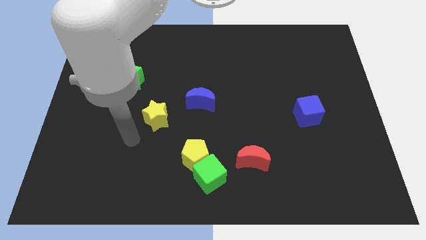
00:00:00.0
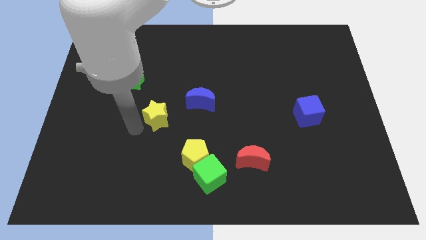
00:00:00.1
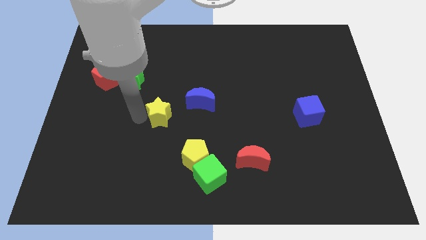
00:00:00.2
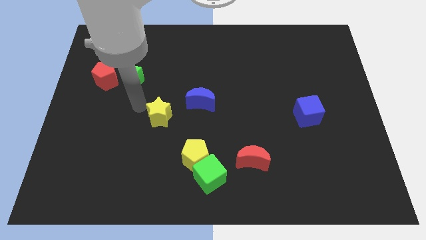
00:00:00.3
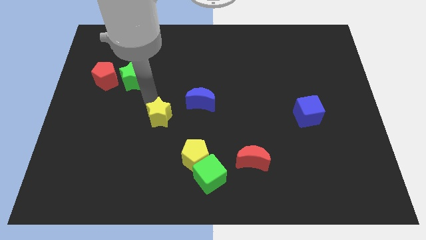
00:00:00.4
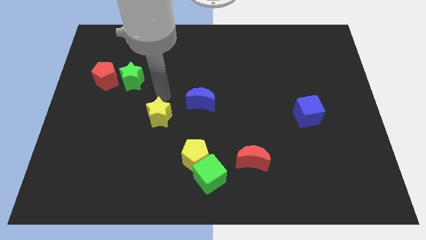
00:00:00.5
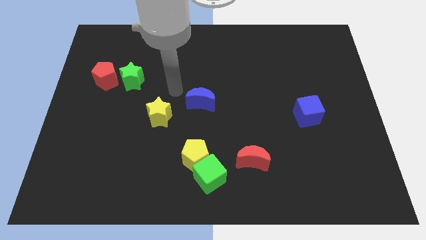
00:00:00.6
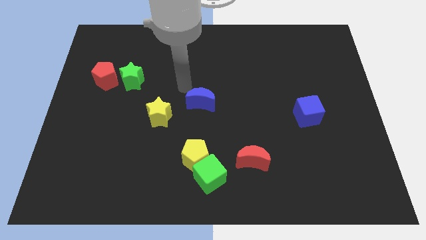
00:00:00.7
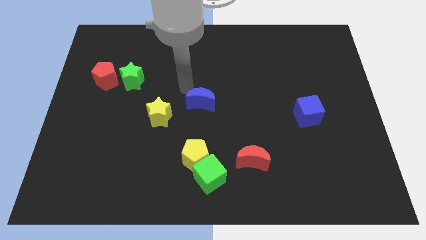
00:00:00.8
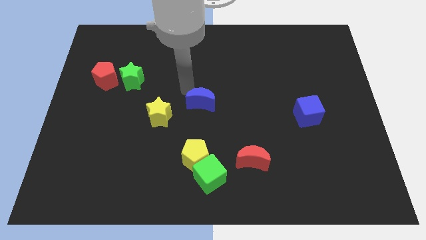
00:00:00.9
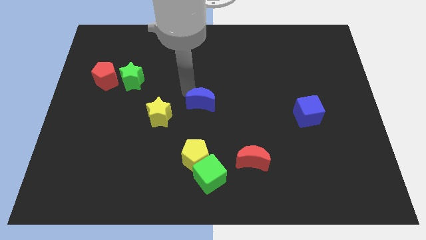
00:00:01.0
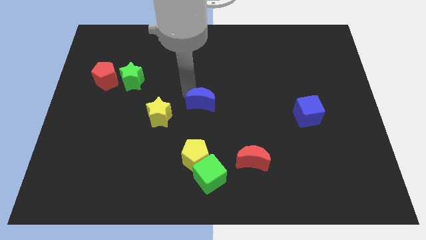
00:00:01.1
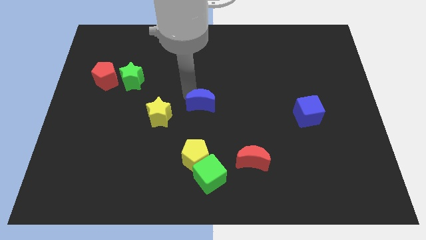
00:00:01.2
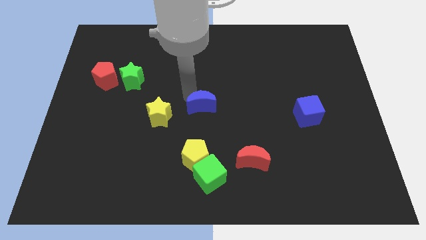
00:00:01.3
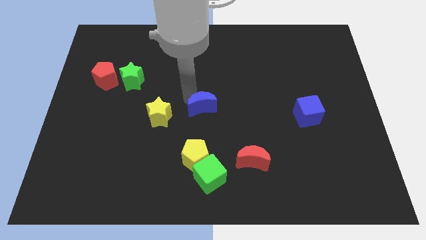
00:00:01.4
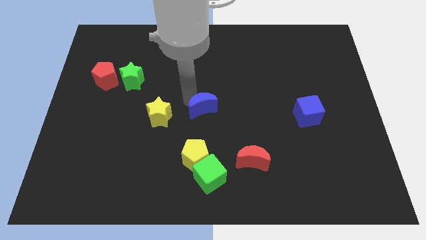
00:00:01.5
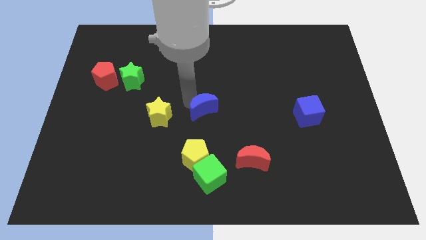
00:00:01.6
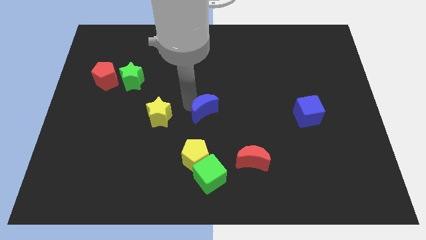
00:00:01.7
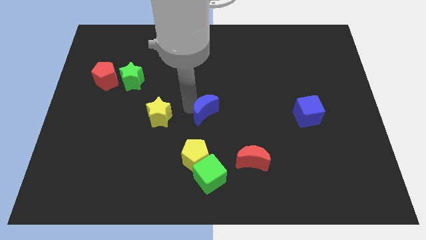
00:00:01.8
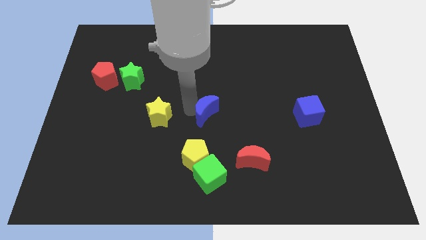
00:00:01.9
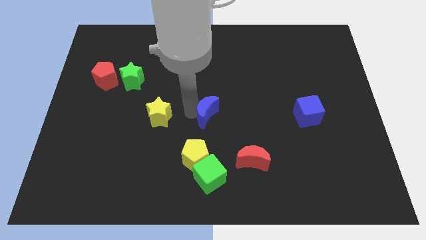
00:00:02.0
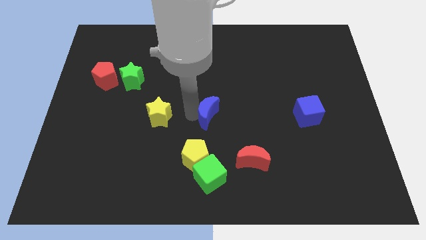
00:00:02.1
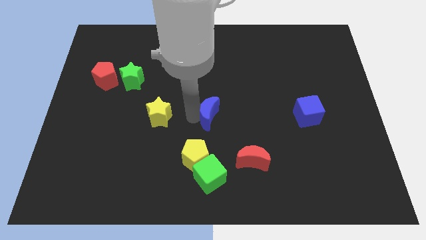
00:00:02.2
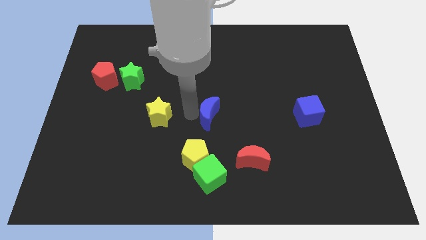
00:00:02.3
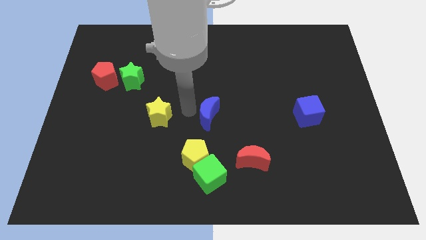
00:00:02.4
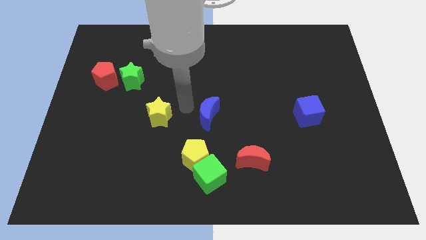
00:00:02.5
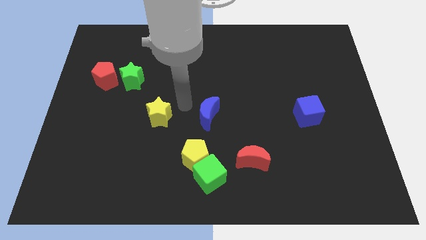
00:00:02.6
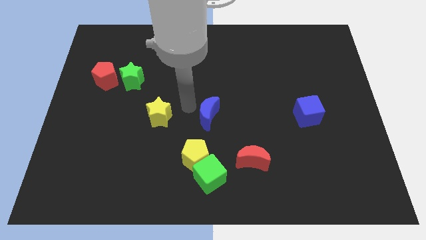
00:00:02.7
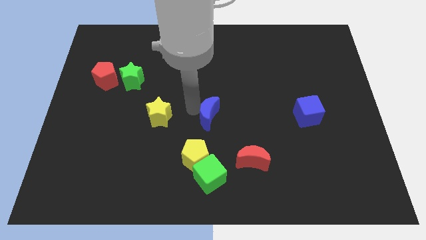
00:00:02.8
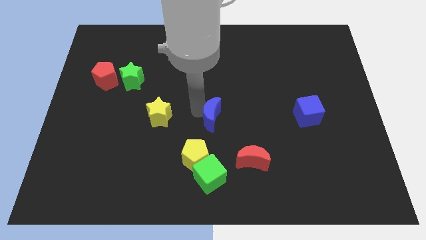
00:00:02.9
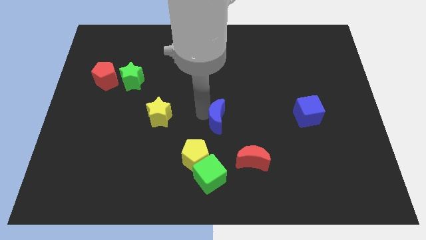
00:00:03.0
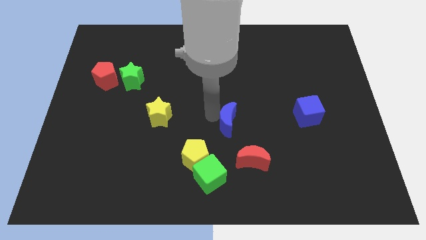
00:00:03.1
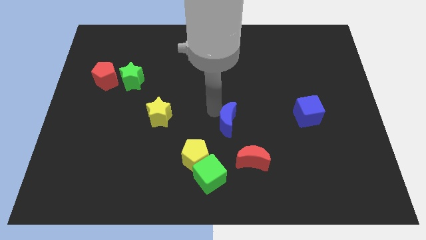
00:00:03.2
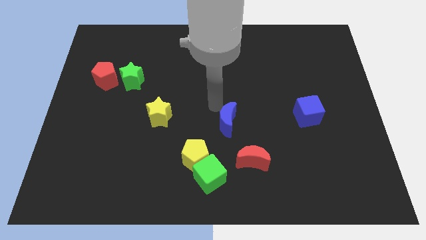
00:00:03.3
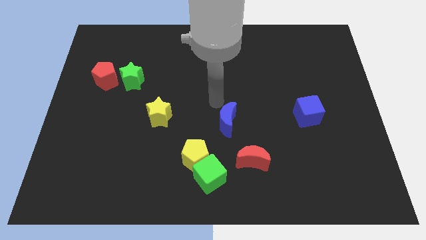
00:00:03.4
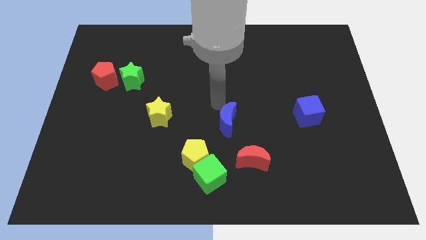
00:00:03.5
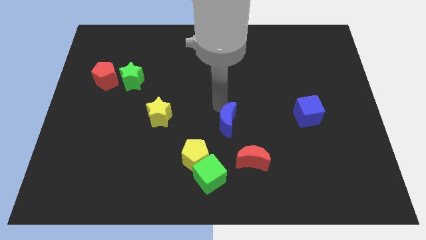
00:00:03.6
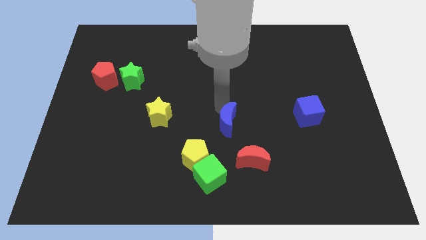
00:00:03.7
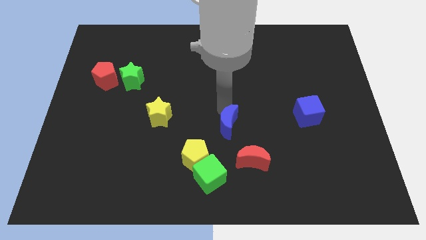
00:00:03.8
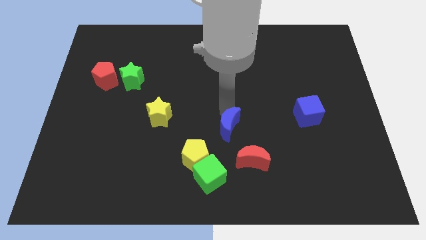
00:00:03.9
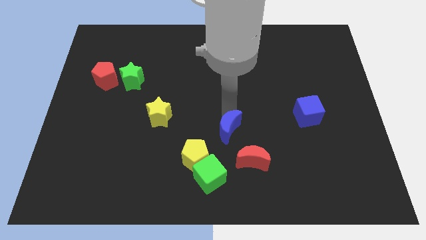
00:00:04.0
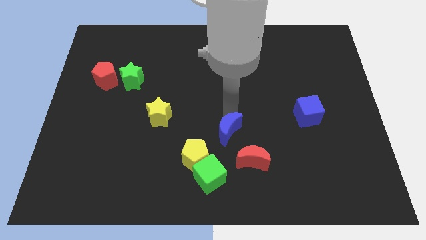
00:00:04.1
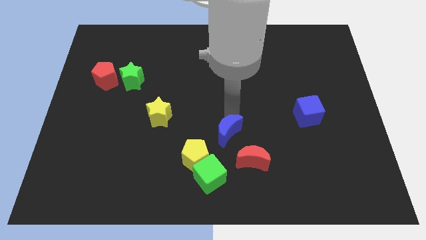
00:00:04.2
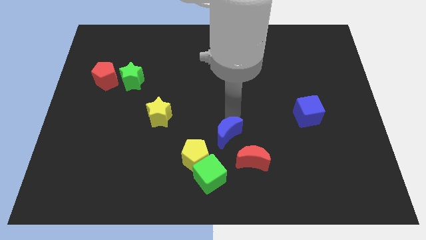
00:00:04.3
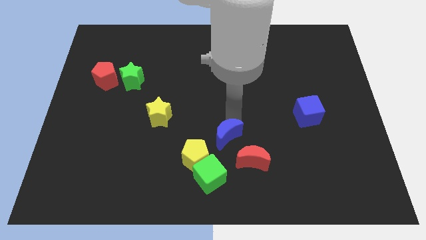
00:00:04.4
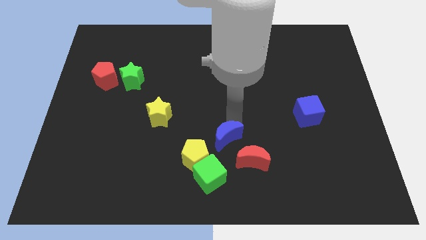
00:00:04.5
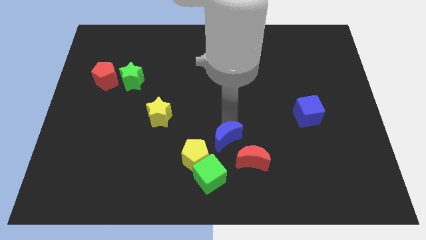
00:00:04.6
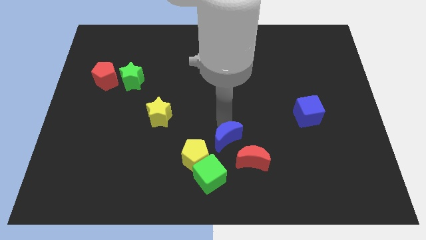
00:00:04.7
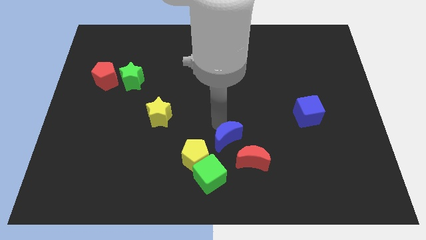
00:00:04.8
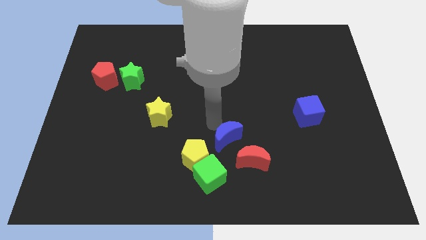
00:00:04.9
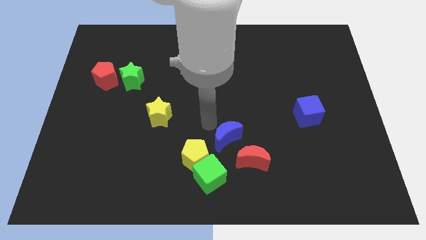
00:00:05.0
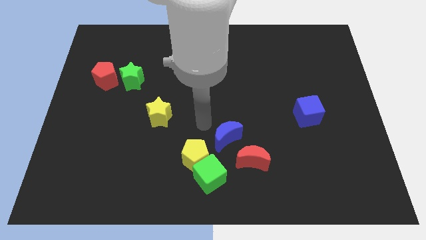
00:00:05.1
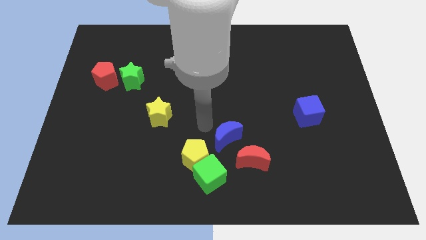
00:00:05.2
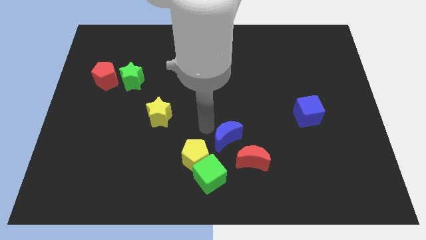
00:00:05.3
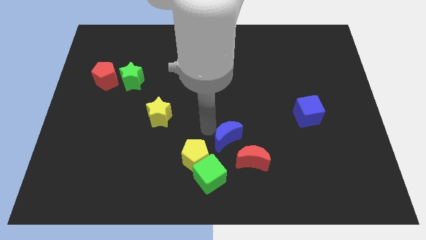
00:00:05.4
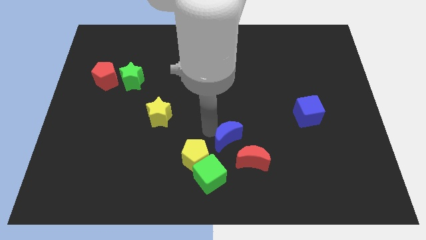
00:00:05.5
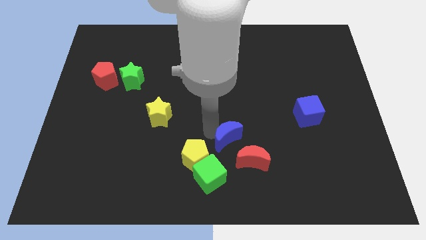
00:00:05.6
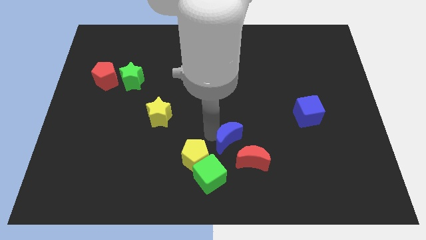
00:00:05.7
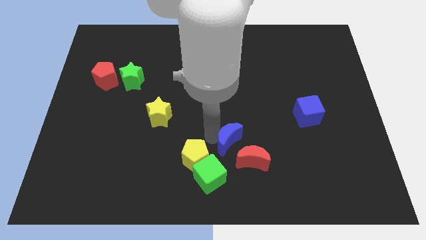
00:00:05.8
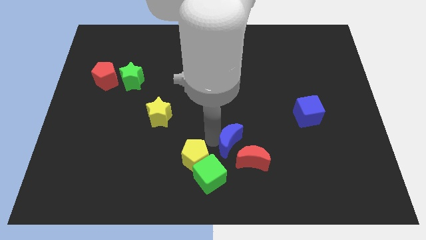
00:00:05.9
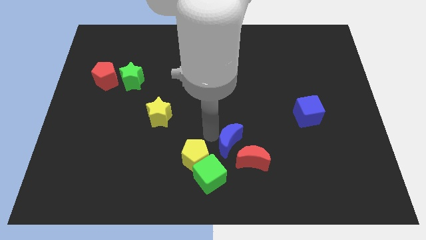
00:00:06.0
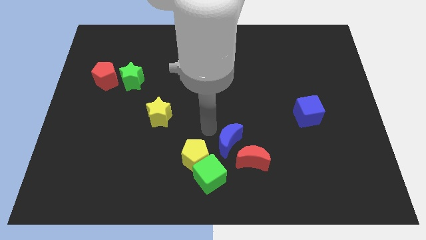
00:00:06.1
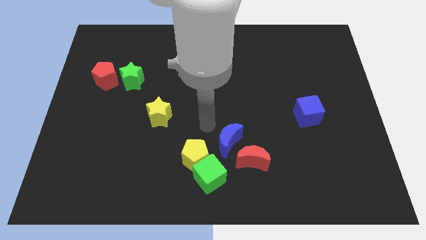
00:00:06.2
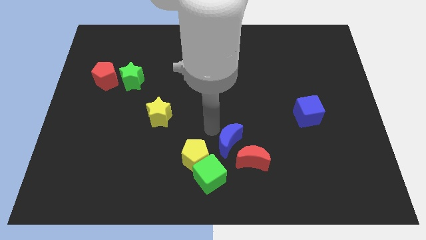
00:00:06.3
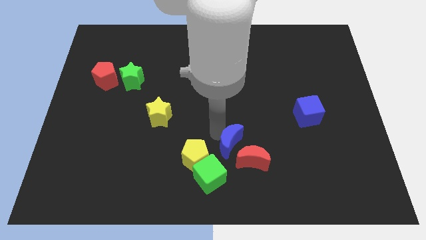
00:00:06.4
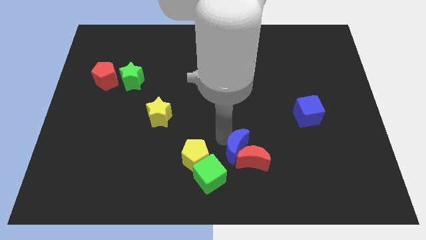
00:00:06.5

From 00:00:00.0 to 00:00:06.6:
move the blue moon to the red moon

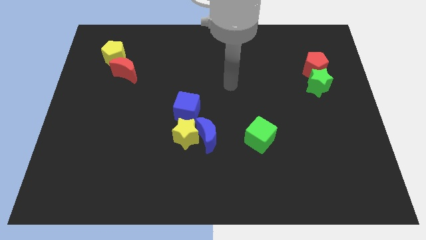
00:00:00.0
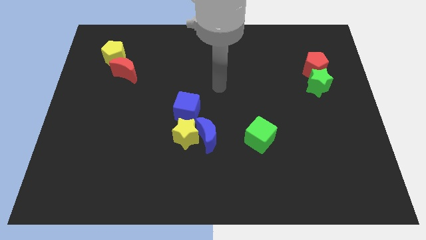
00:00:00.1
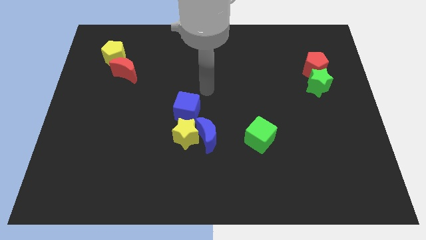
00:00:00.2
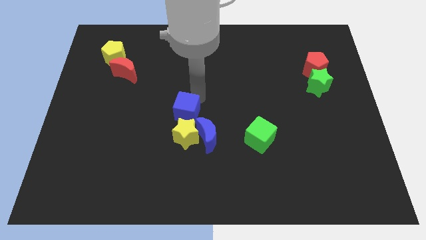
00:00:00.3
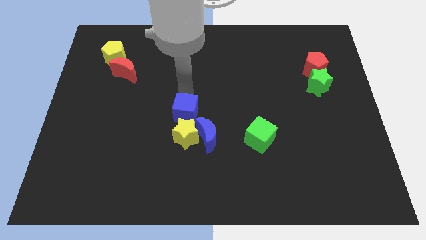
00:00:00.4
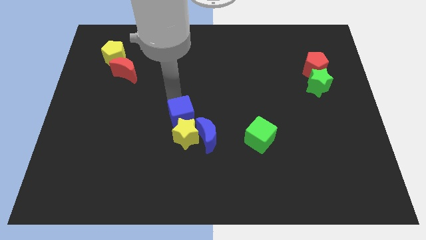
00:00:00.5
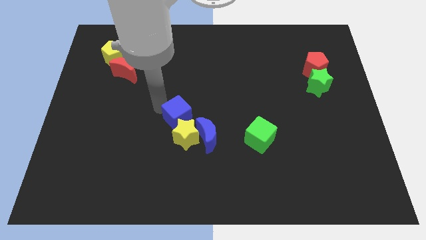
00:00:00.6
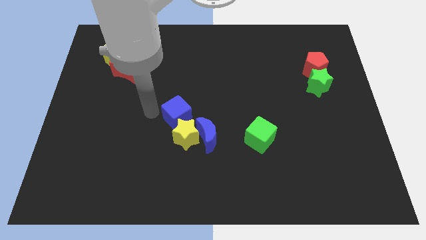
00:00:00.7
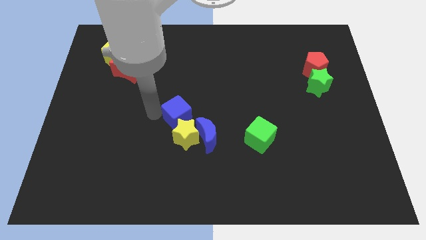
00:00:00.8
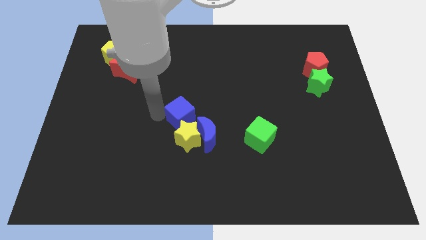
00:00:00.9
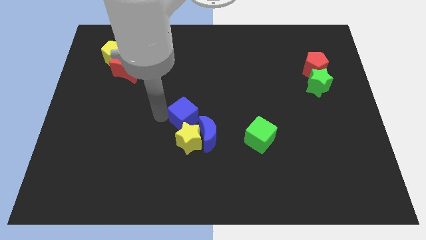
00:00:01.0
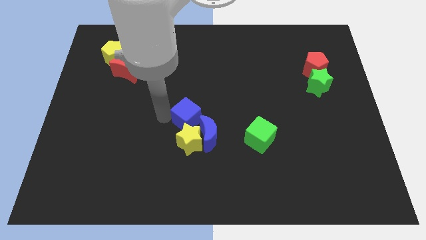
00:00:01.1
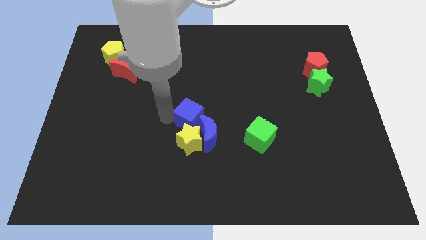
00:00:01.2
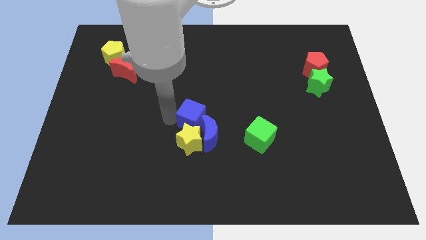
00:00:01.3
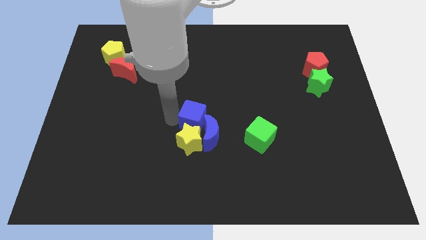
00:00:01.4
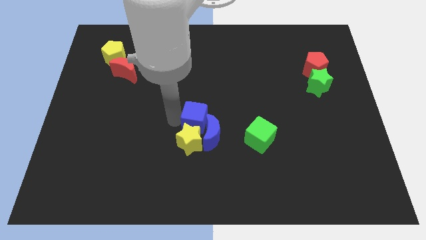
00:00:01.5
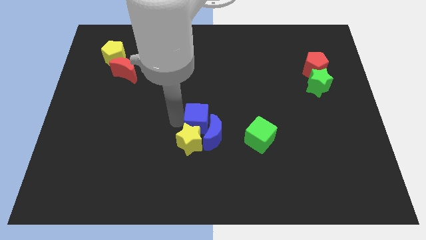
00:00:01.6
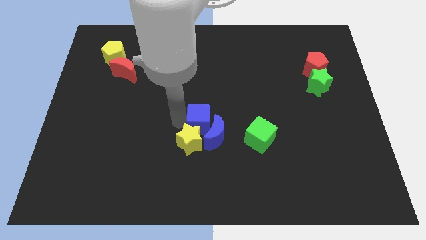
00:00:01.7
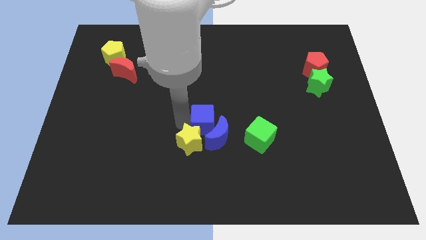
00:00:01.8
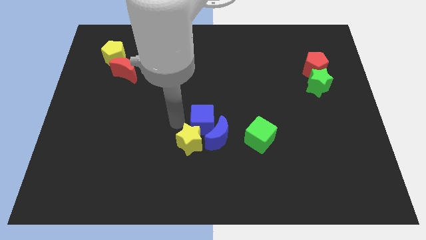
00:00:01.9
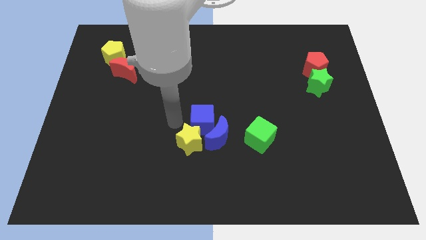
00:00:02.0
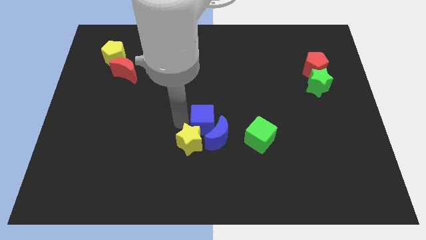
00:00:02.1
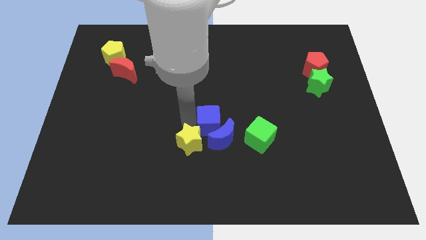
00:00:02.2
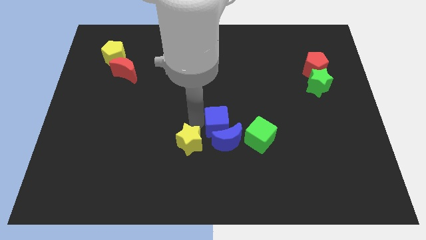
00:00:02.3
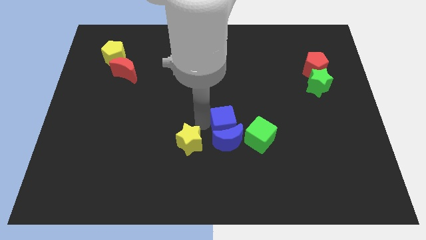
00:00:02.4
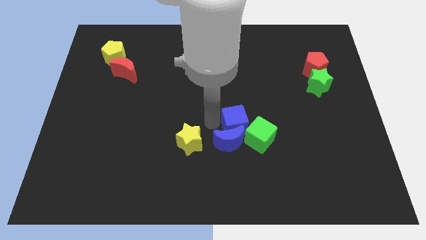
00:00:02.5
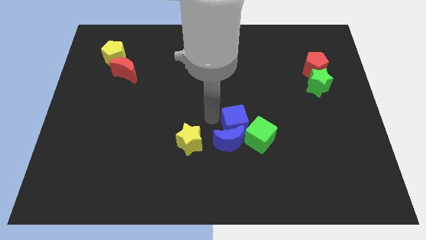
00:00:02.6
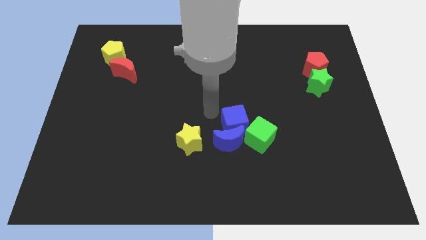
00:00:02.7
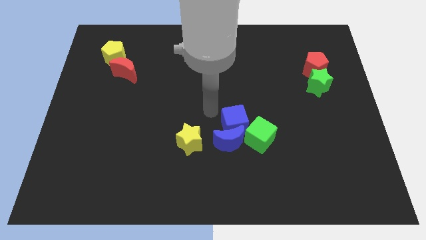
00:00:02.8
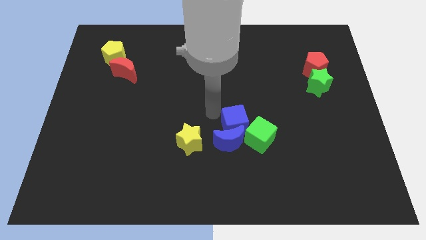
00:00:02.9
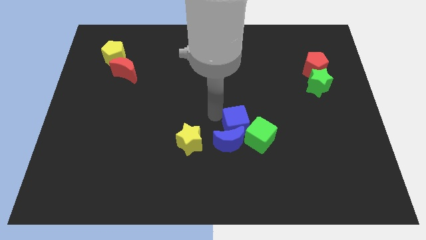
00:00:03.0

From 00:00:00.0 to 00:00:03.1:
slide the blue cube towards the green cube
